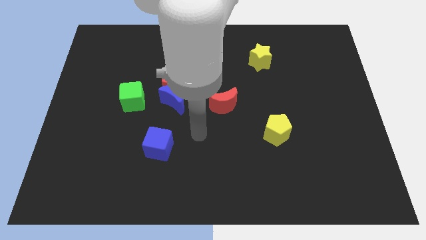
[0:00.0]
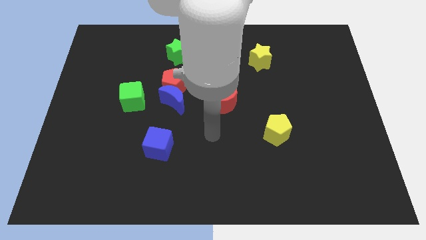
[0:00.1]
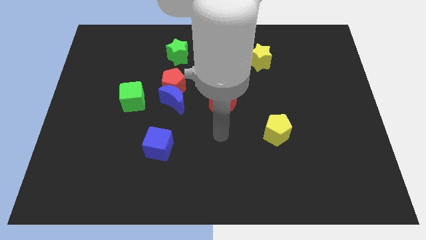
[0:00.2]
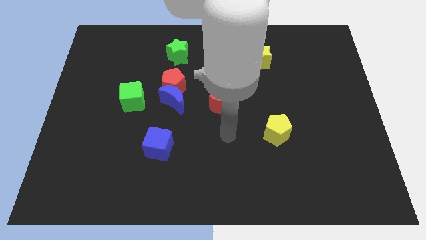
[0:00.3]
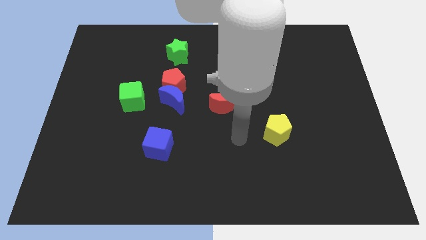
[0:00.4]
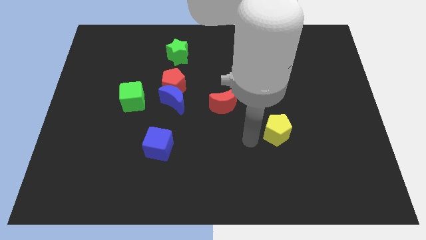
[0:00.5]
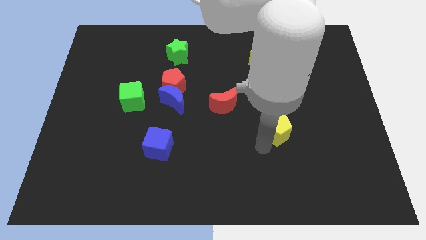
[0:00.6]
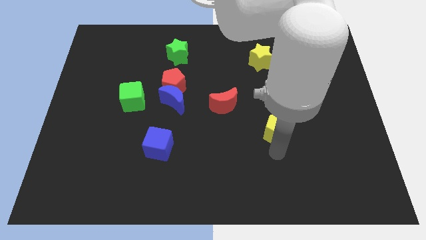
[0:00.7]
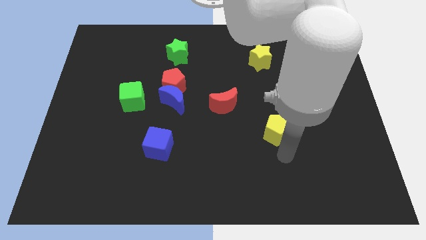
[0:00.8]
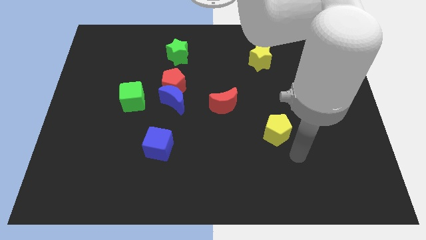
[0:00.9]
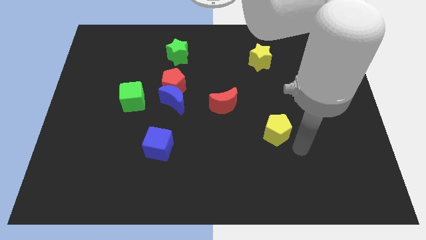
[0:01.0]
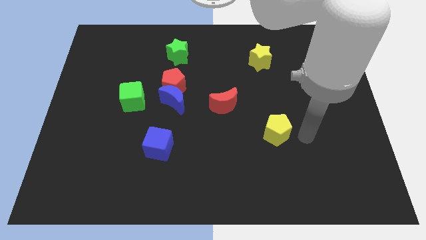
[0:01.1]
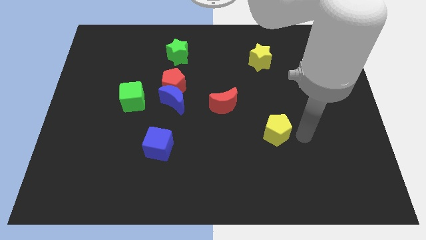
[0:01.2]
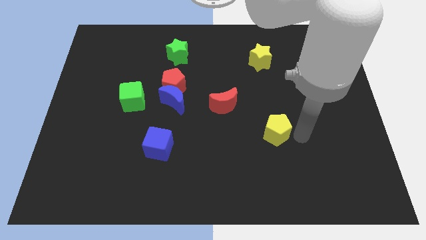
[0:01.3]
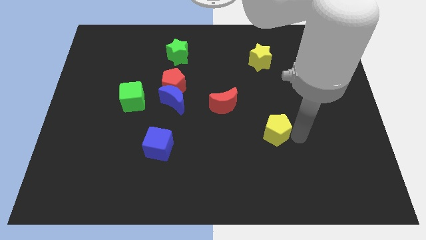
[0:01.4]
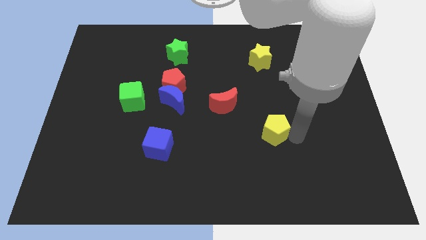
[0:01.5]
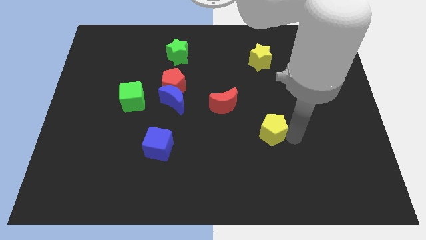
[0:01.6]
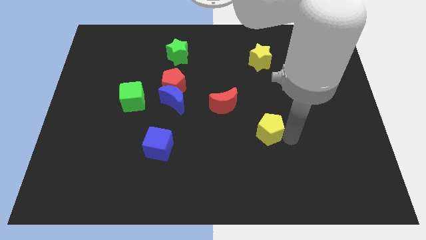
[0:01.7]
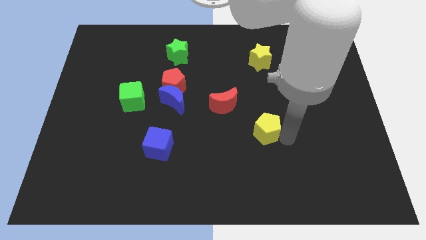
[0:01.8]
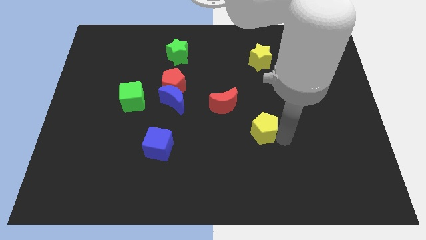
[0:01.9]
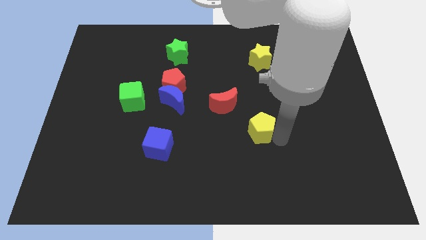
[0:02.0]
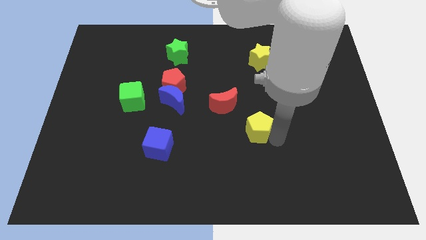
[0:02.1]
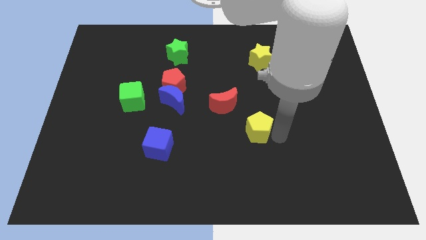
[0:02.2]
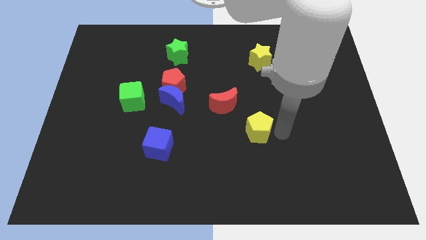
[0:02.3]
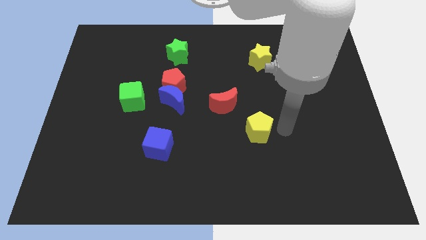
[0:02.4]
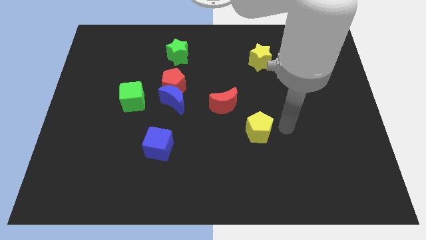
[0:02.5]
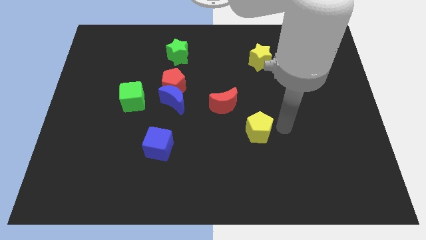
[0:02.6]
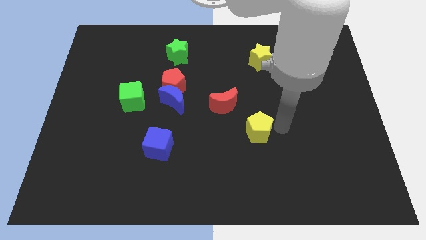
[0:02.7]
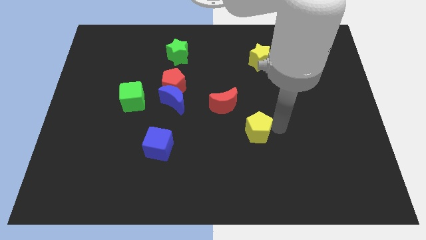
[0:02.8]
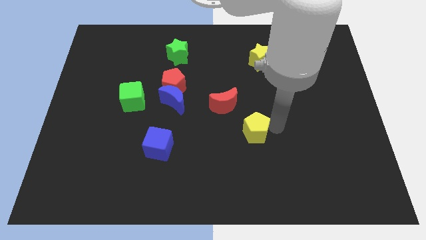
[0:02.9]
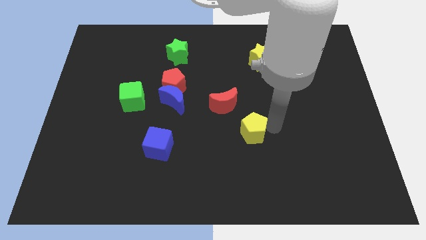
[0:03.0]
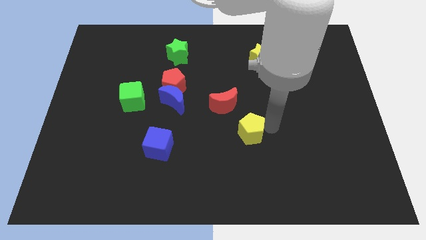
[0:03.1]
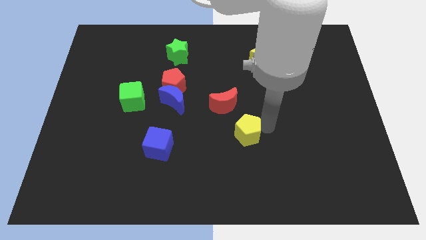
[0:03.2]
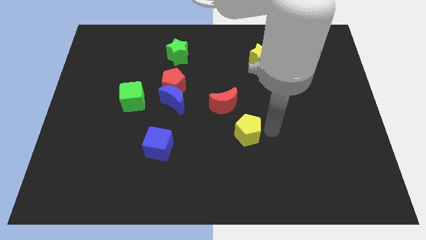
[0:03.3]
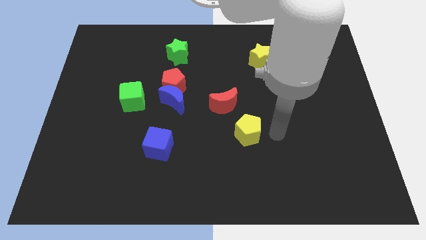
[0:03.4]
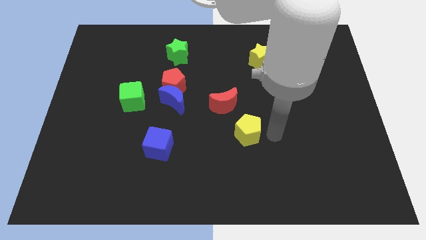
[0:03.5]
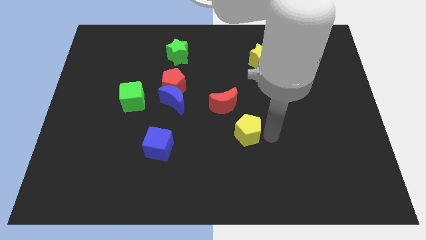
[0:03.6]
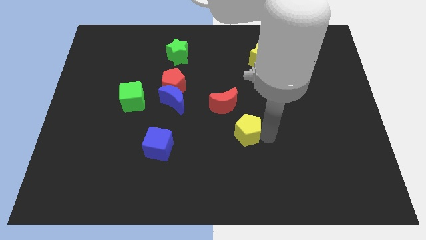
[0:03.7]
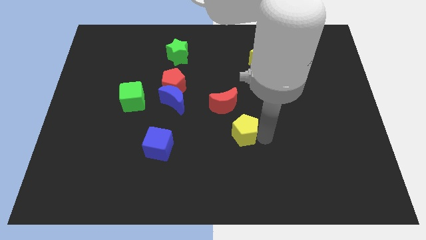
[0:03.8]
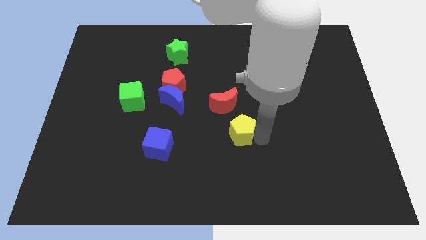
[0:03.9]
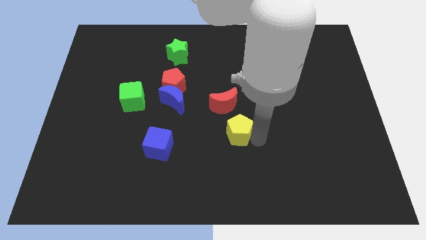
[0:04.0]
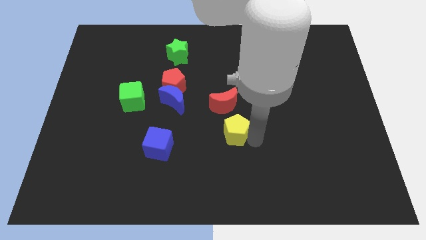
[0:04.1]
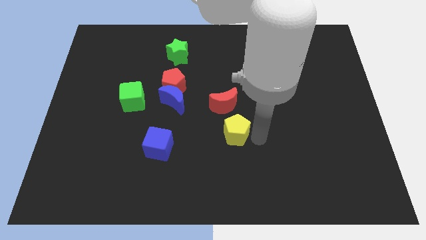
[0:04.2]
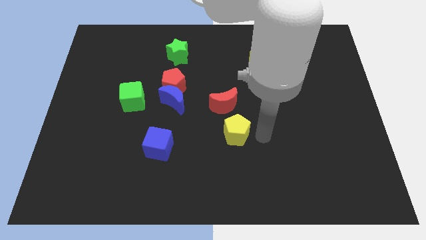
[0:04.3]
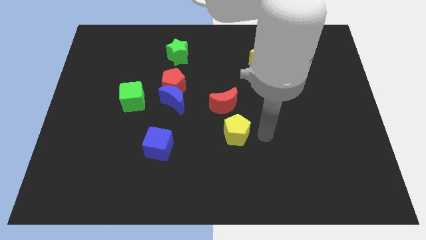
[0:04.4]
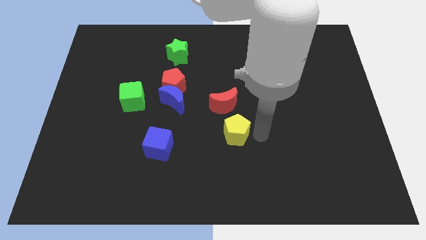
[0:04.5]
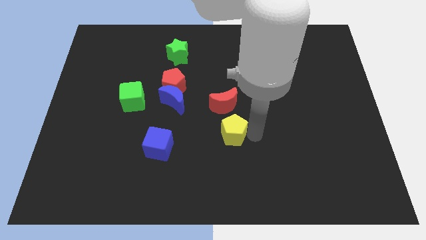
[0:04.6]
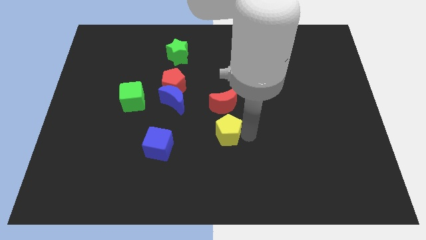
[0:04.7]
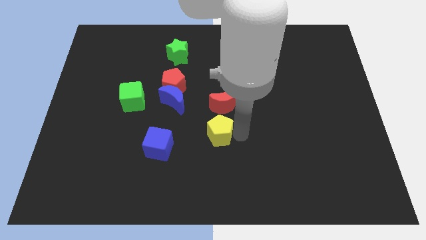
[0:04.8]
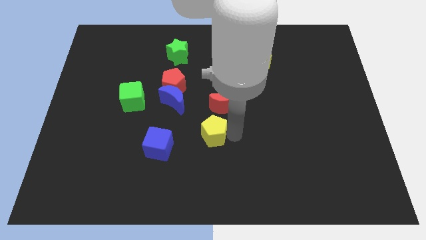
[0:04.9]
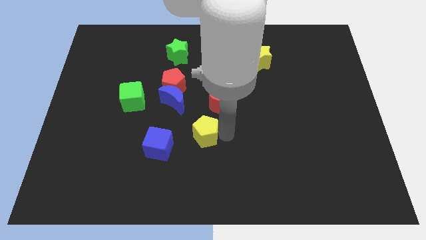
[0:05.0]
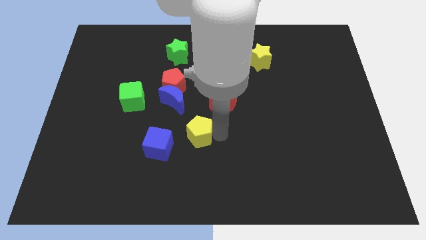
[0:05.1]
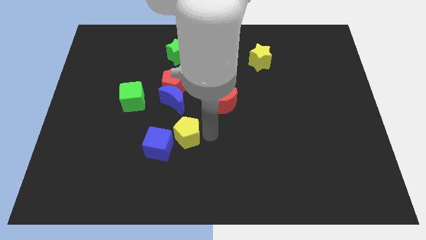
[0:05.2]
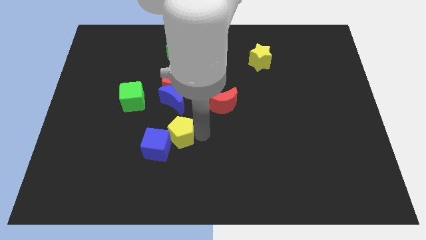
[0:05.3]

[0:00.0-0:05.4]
slide the yellow pentagon next to the blue cube

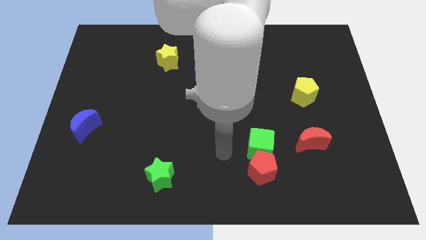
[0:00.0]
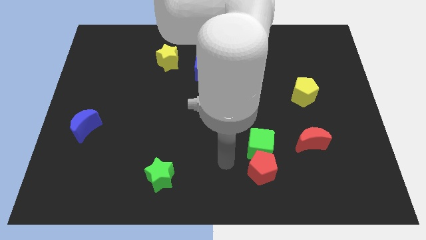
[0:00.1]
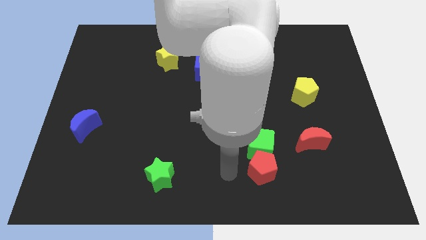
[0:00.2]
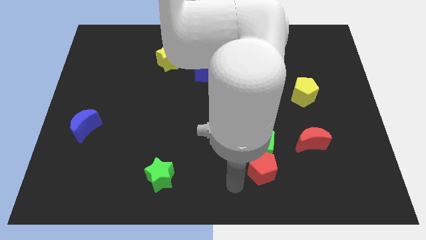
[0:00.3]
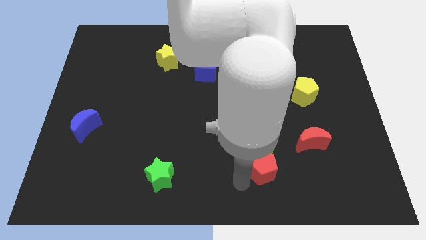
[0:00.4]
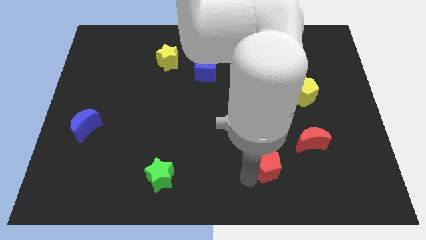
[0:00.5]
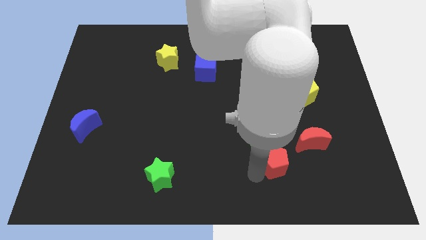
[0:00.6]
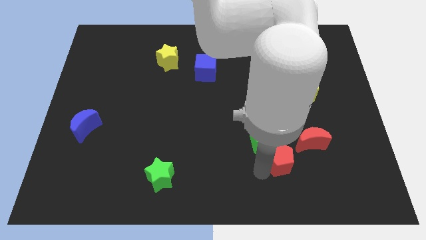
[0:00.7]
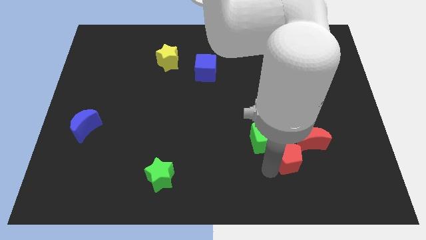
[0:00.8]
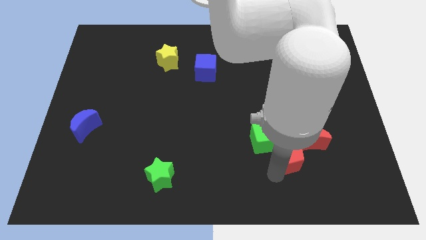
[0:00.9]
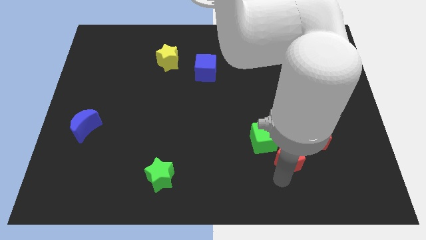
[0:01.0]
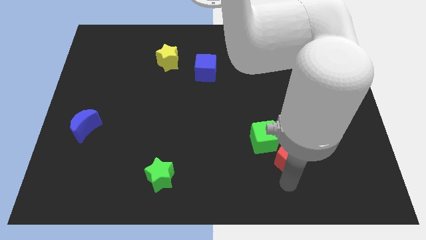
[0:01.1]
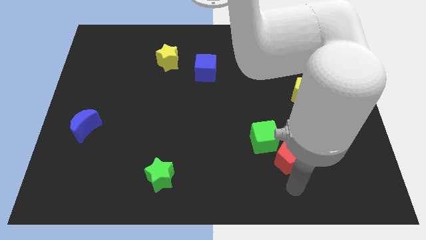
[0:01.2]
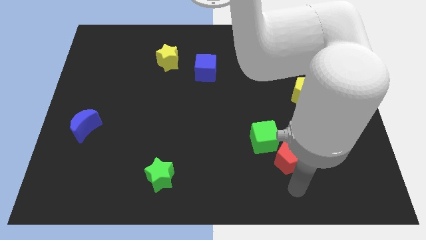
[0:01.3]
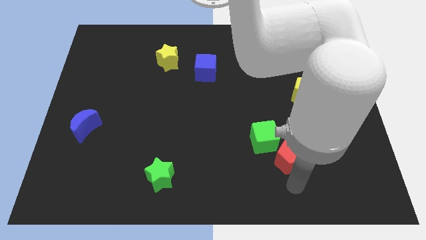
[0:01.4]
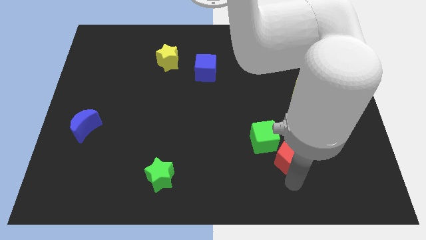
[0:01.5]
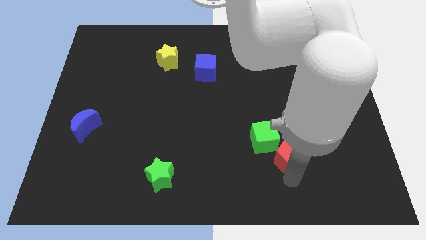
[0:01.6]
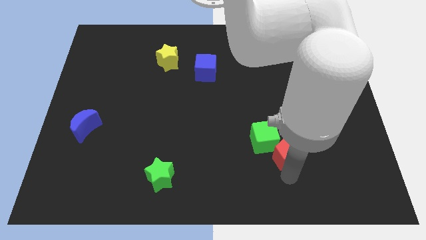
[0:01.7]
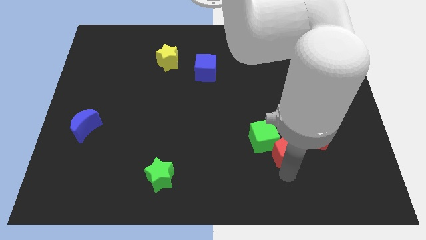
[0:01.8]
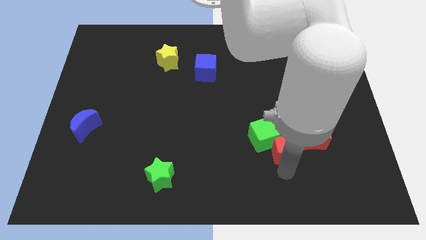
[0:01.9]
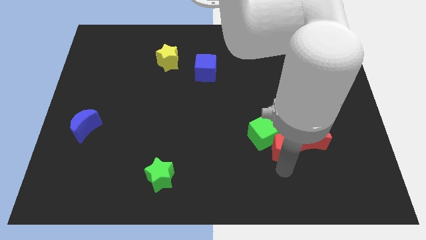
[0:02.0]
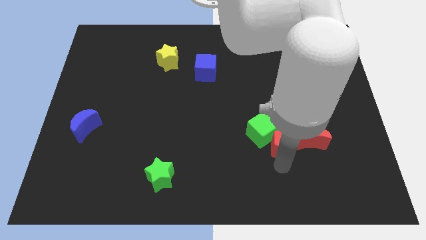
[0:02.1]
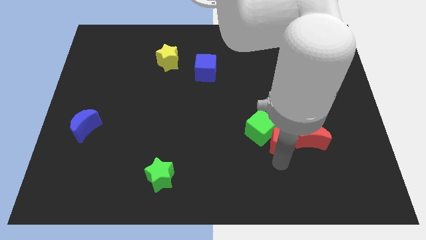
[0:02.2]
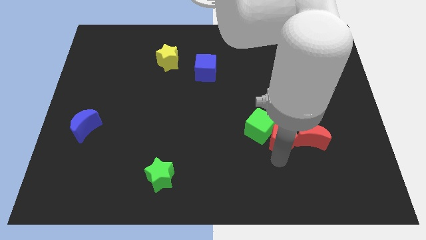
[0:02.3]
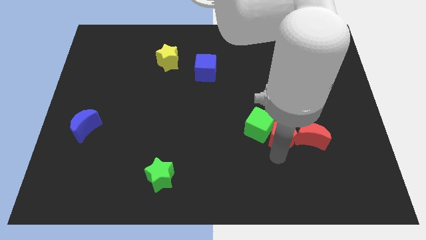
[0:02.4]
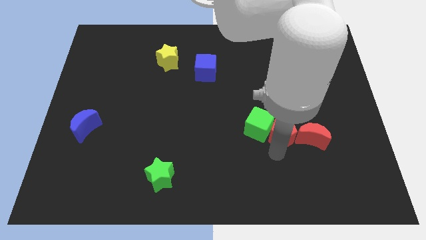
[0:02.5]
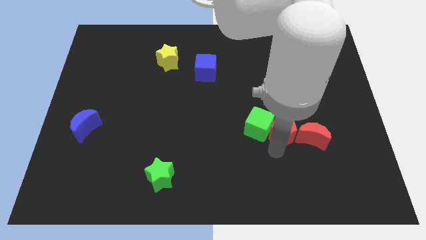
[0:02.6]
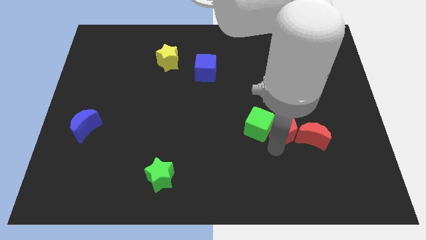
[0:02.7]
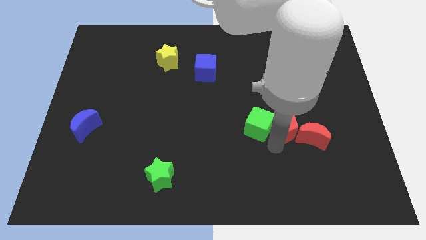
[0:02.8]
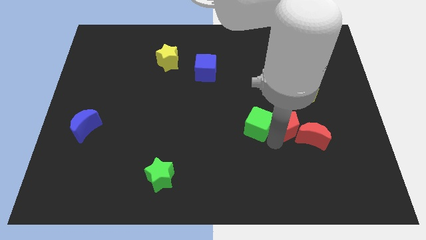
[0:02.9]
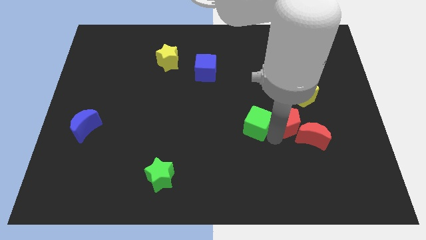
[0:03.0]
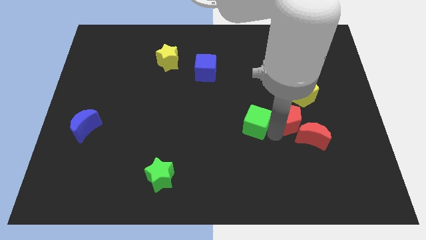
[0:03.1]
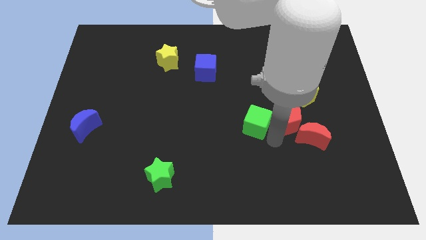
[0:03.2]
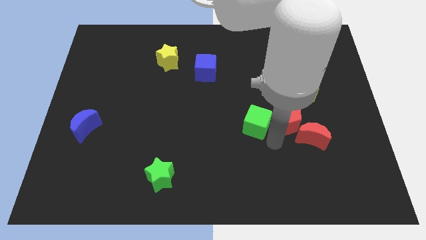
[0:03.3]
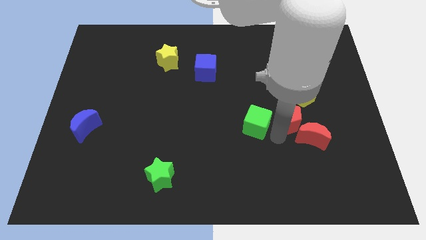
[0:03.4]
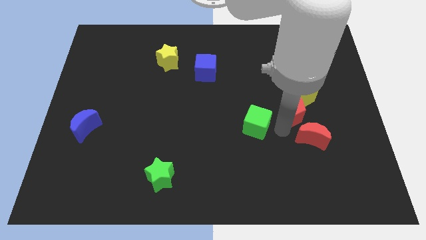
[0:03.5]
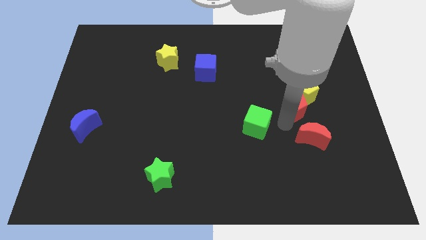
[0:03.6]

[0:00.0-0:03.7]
push the red pentagon towards the yellow pentagon
